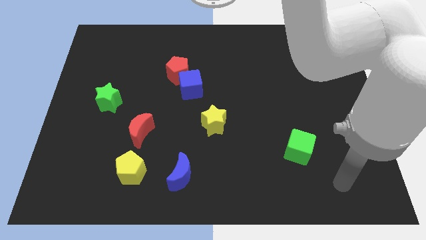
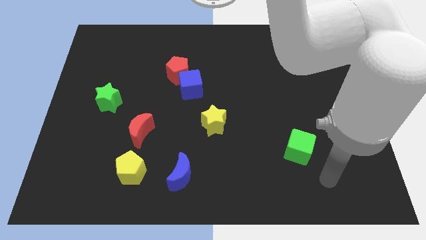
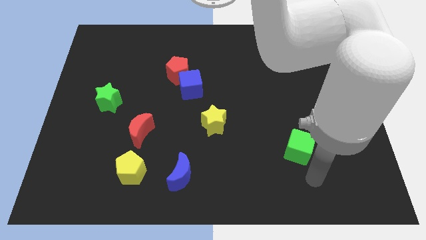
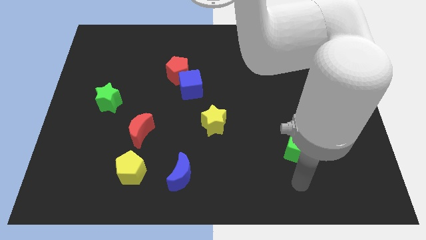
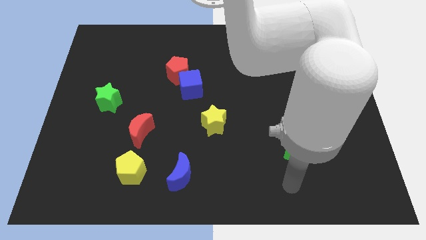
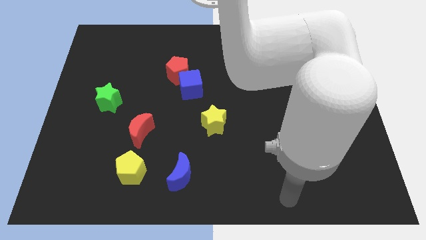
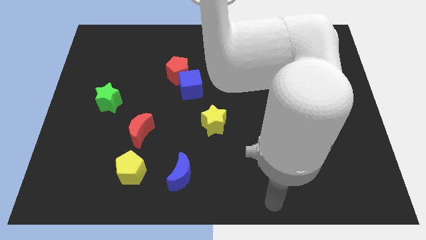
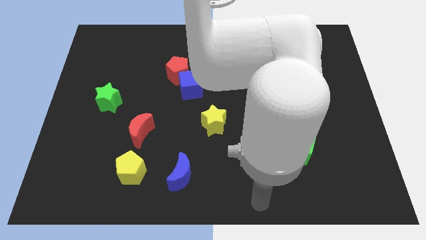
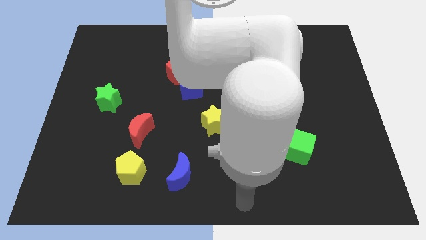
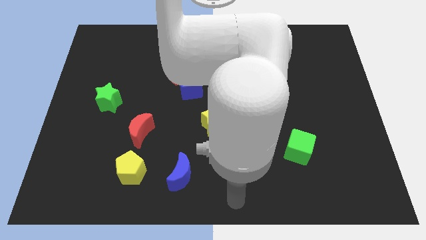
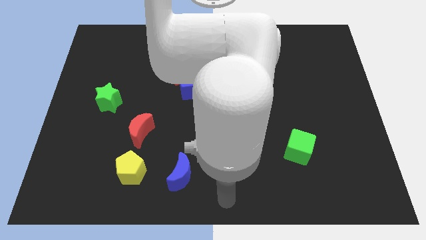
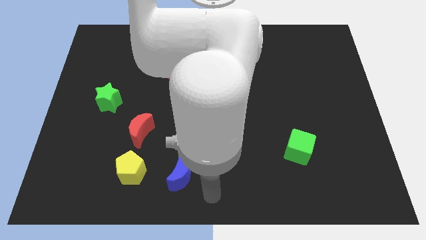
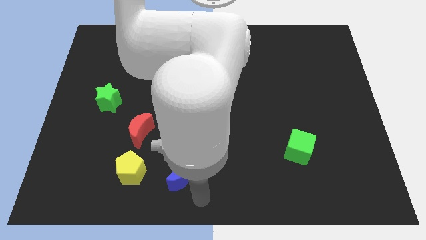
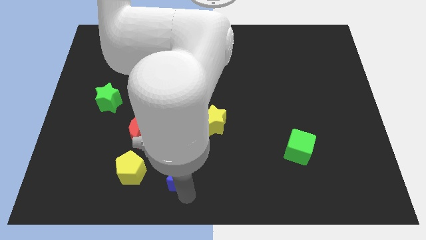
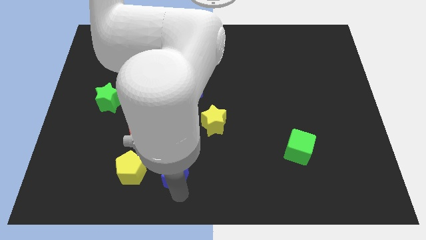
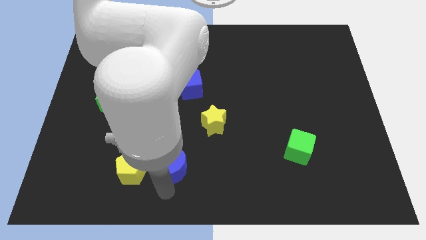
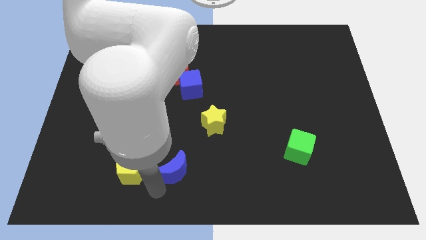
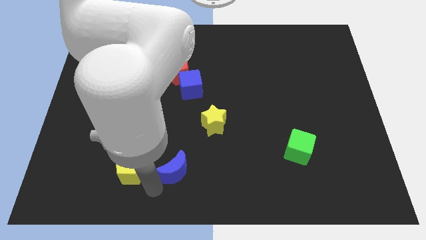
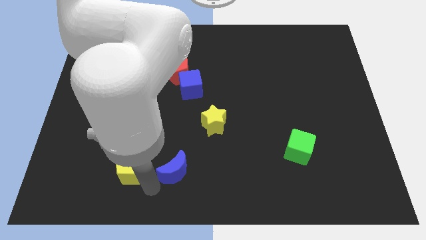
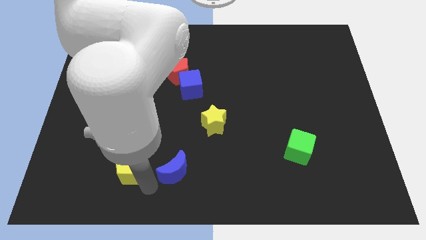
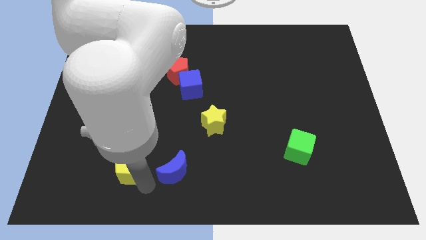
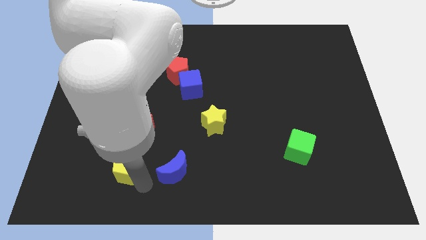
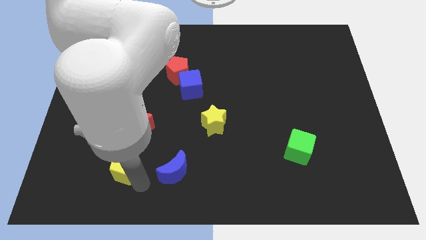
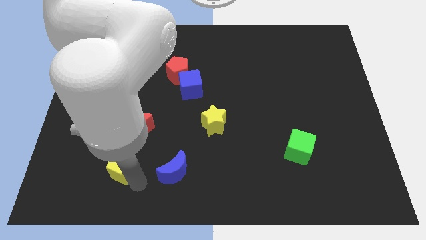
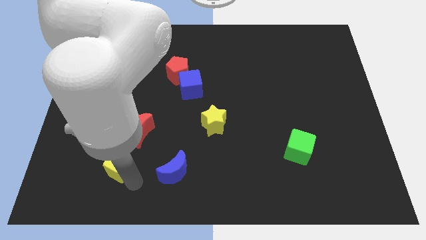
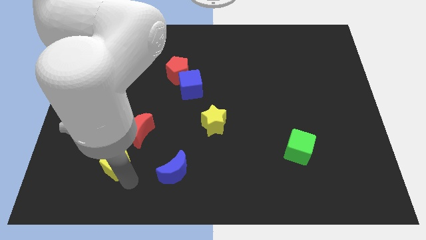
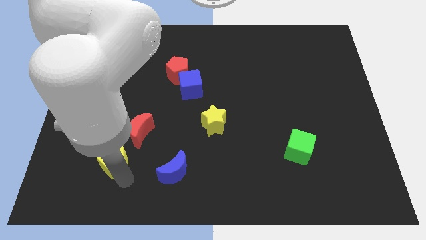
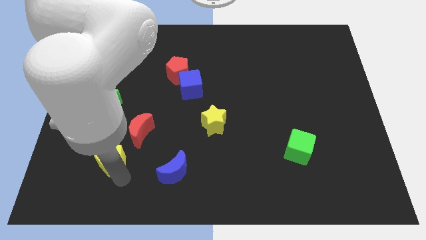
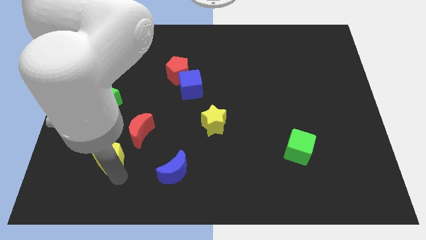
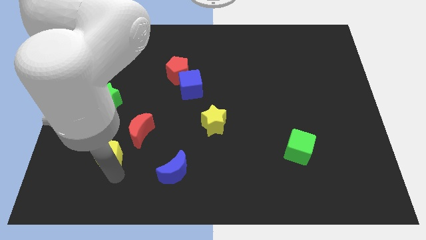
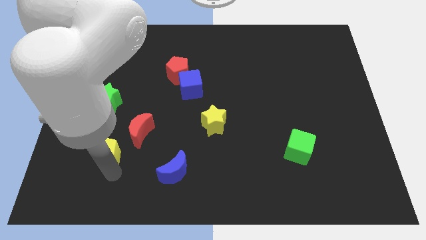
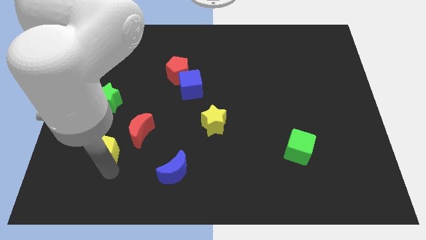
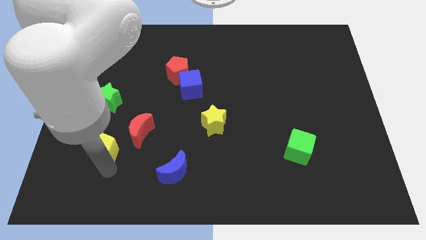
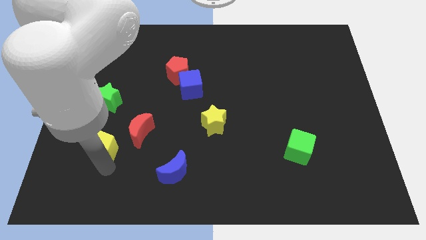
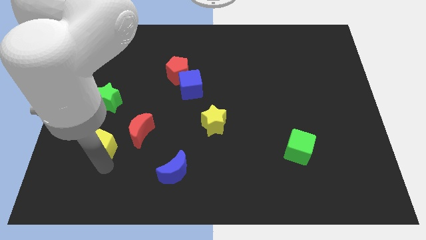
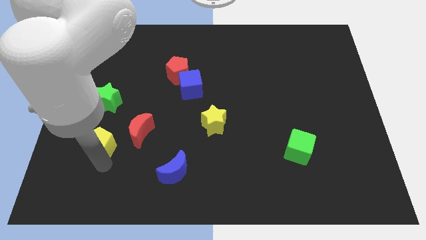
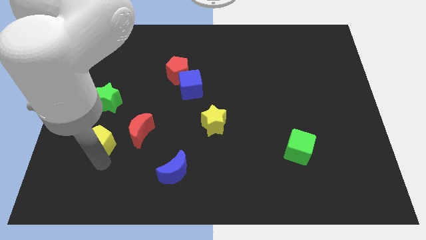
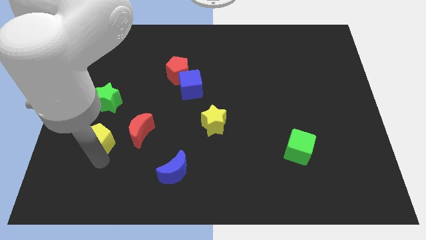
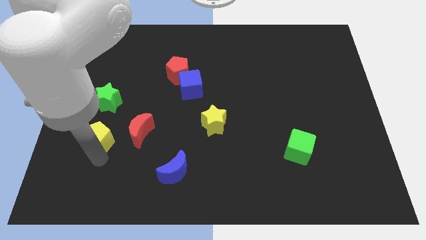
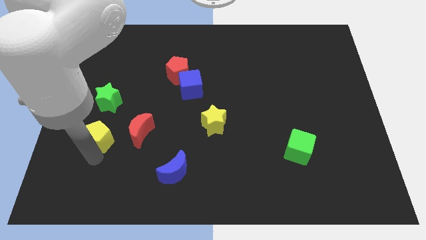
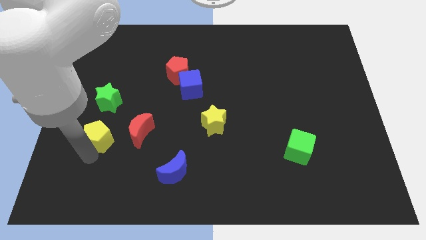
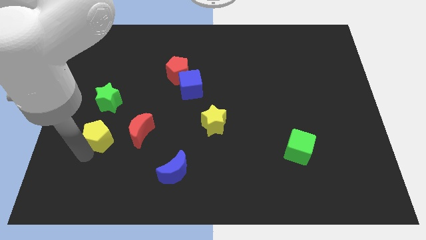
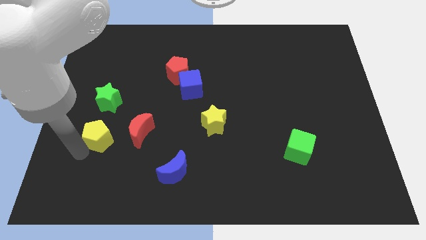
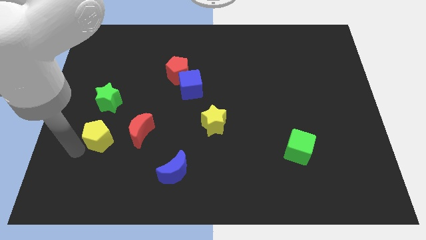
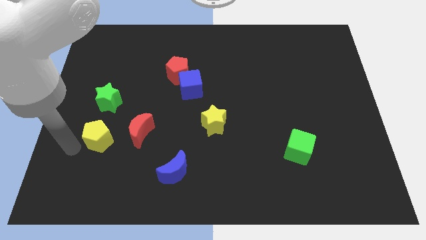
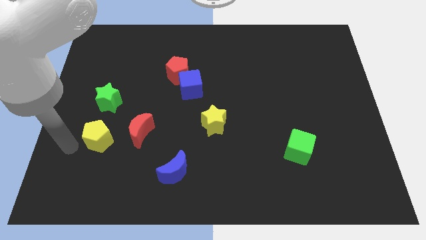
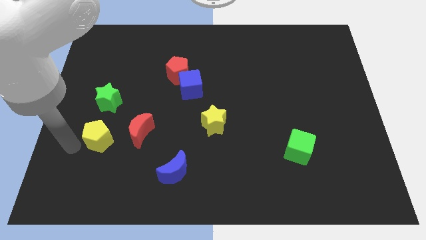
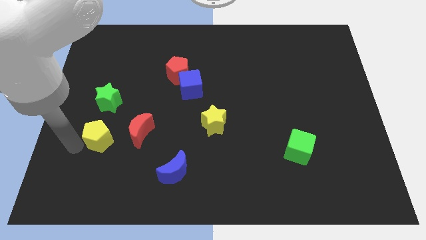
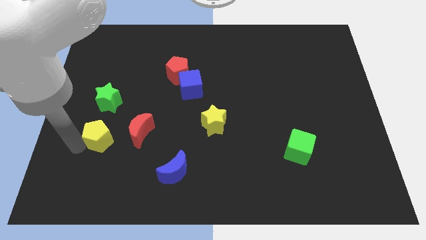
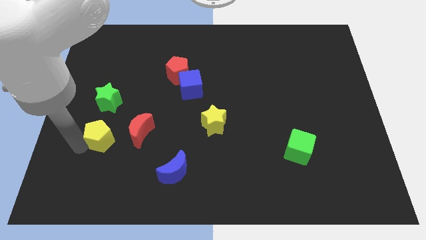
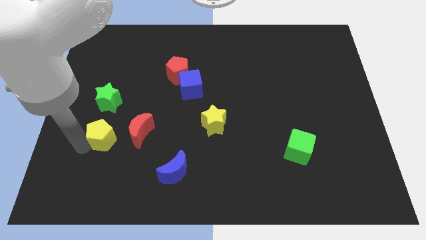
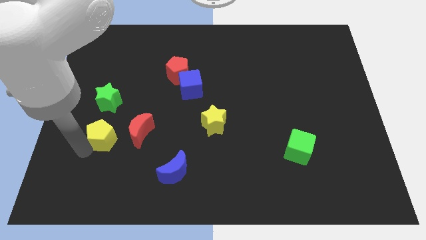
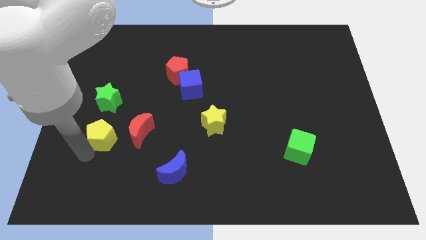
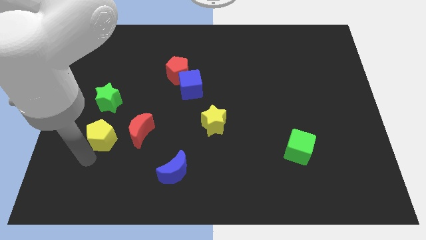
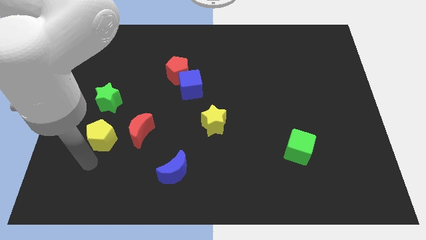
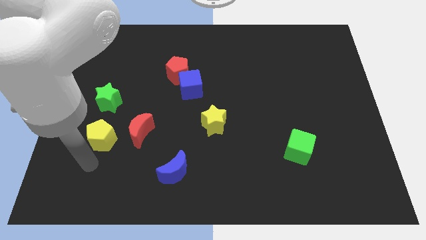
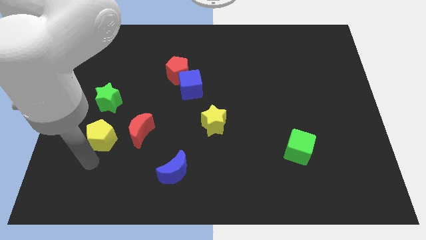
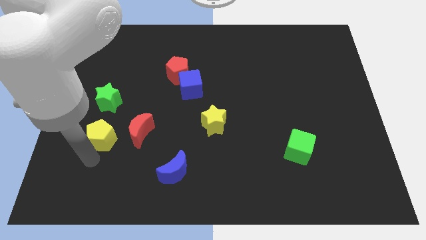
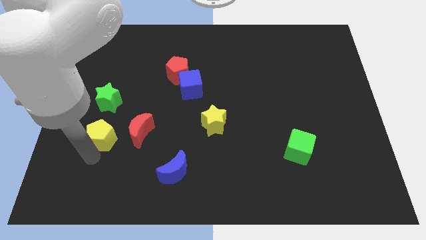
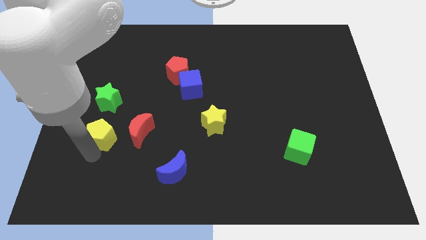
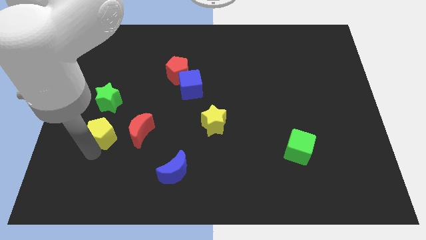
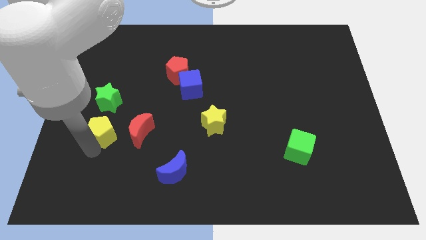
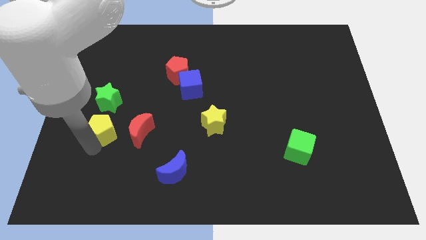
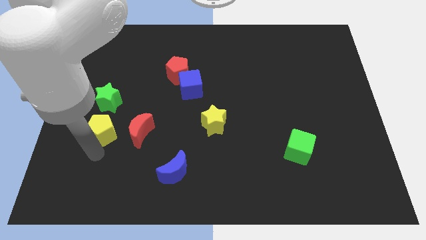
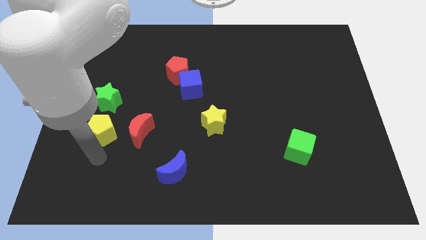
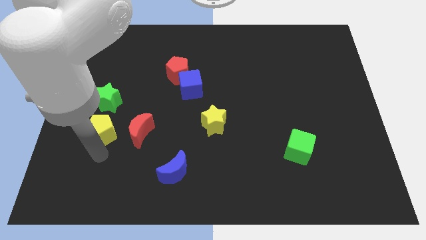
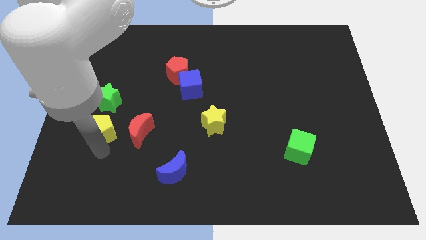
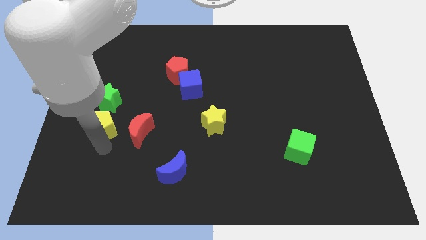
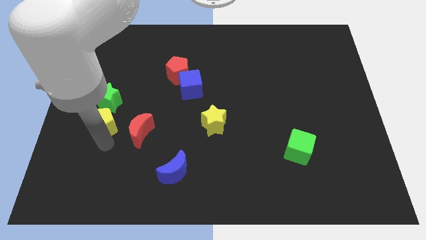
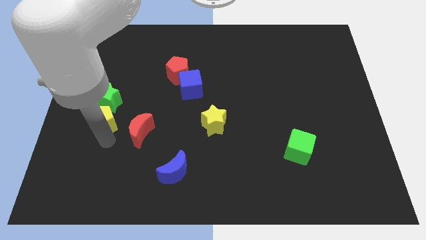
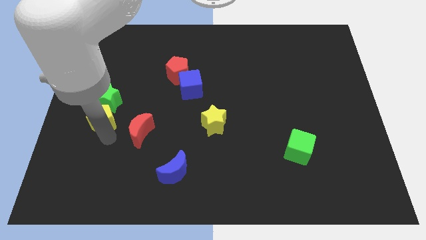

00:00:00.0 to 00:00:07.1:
push the yellow pentagon to the green star

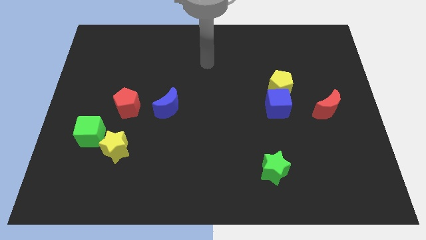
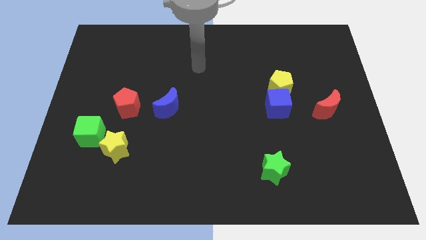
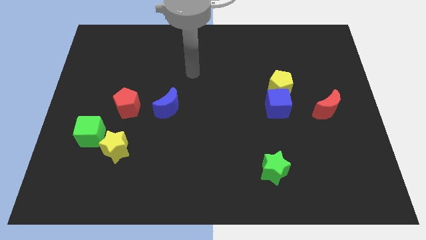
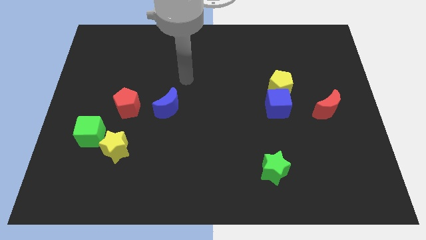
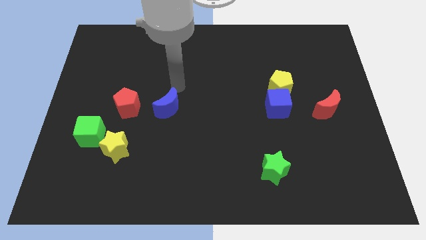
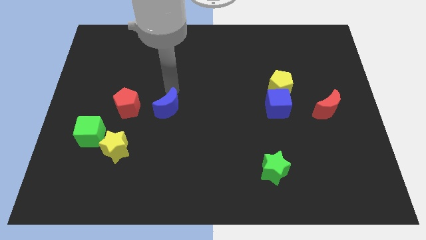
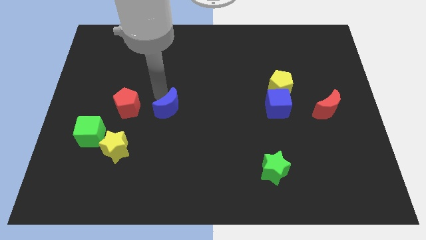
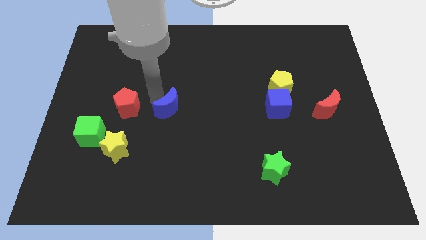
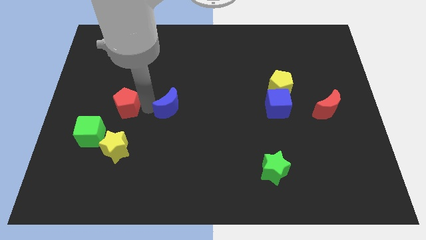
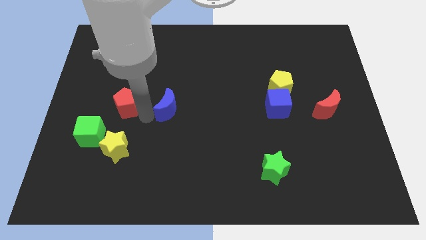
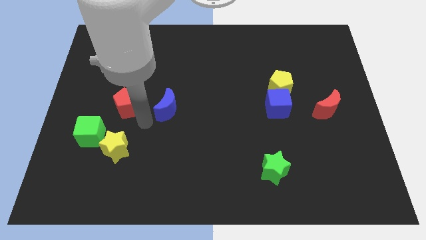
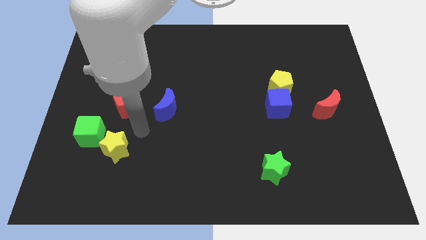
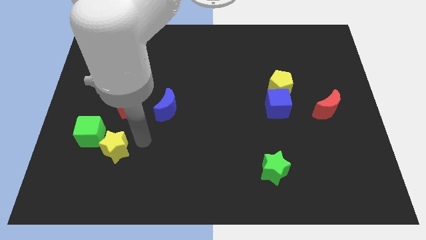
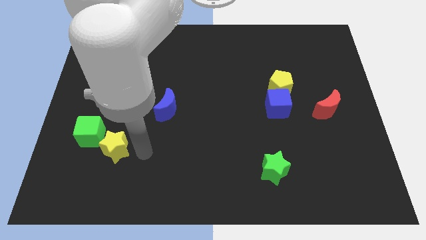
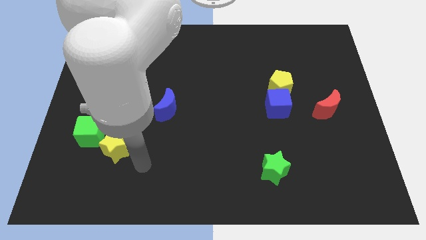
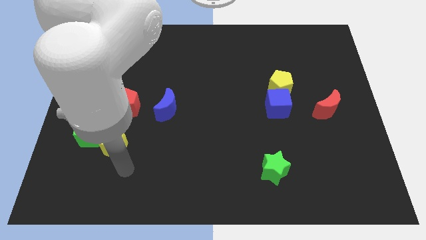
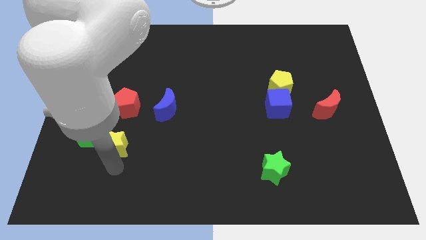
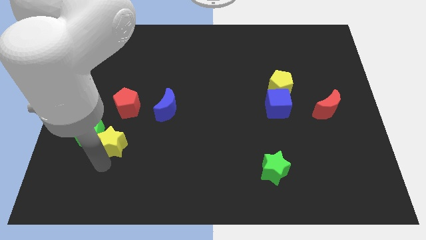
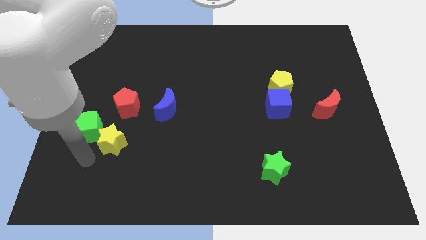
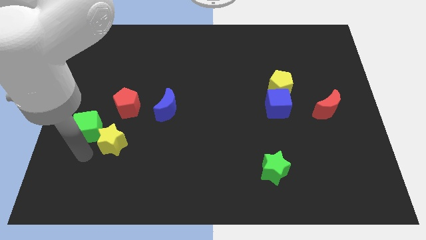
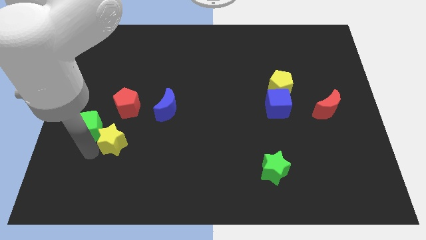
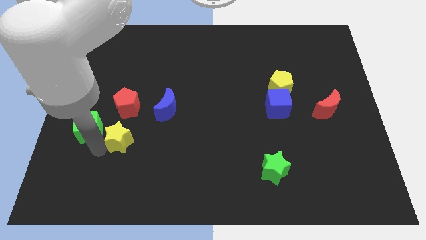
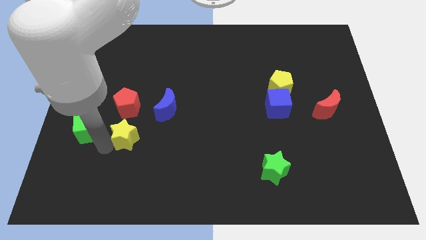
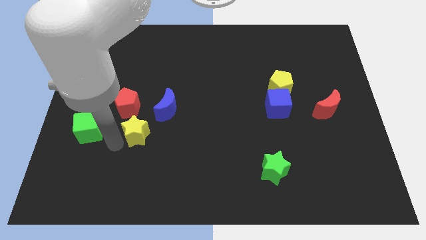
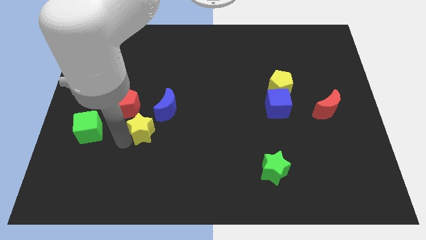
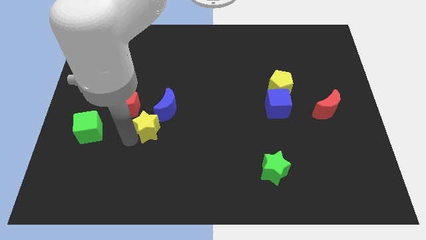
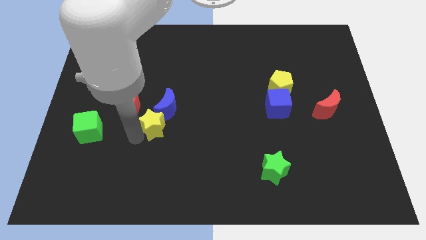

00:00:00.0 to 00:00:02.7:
move the yellow star next to the blue moon
